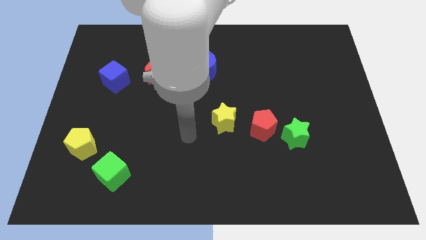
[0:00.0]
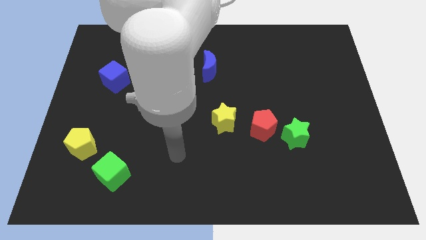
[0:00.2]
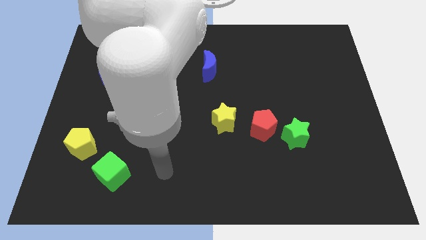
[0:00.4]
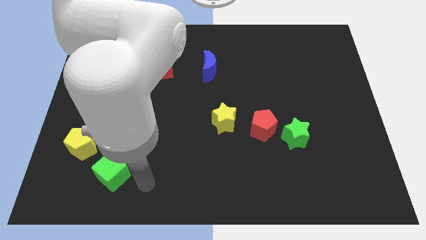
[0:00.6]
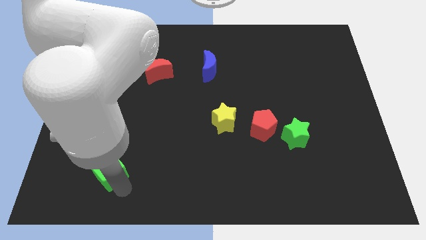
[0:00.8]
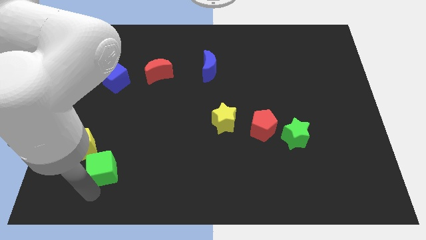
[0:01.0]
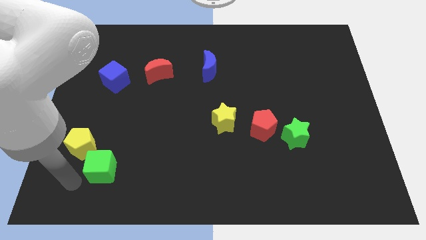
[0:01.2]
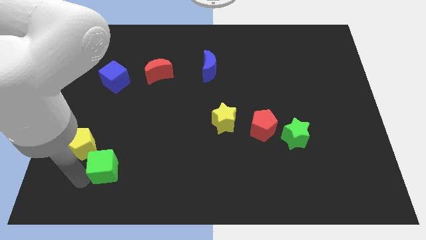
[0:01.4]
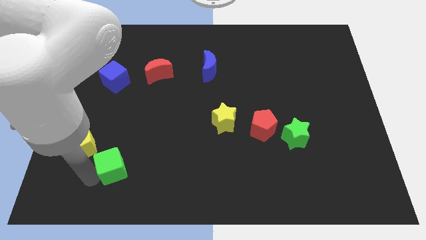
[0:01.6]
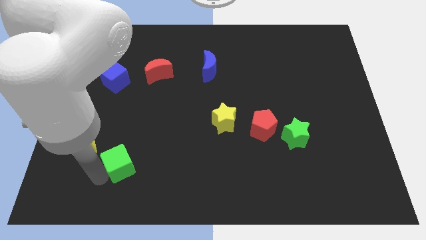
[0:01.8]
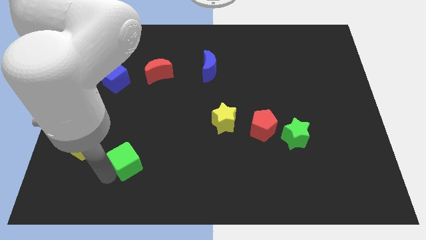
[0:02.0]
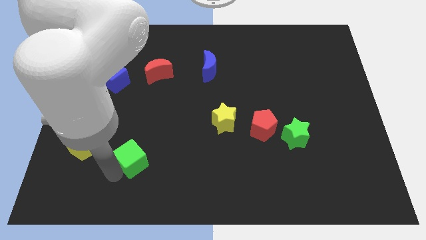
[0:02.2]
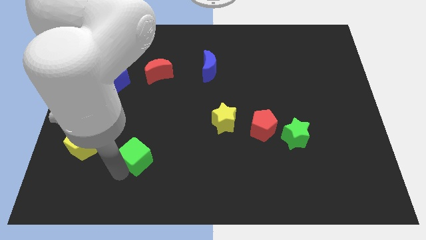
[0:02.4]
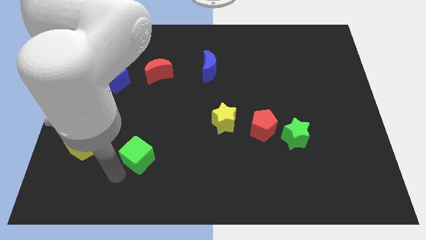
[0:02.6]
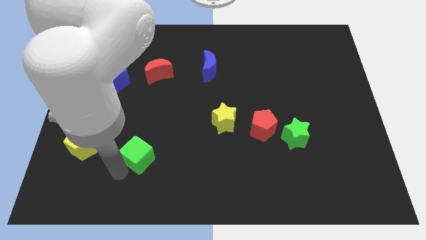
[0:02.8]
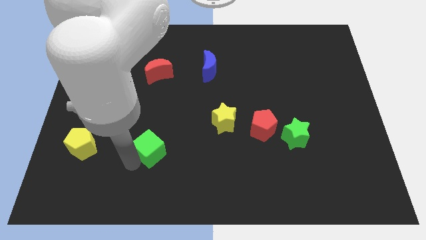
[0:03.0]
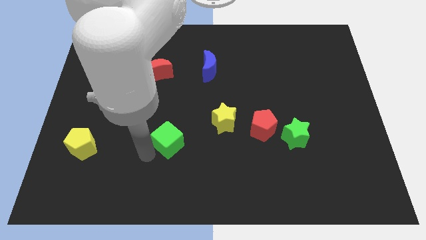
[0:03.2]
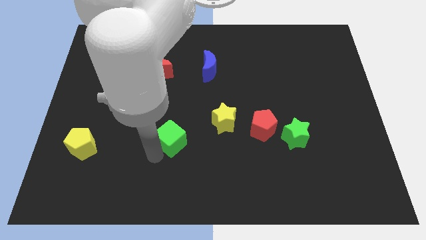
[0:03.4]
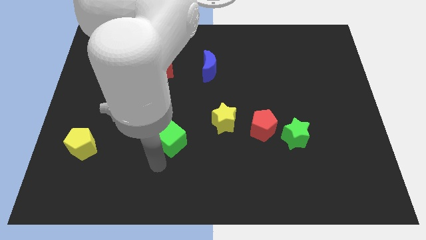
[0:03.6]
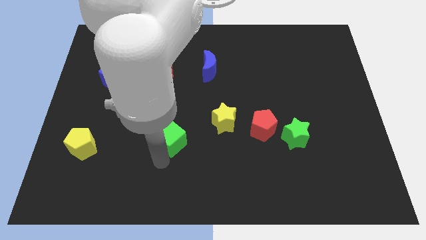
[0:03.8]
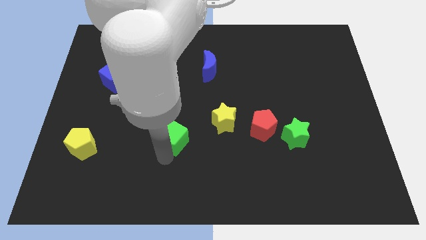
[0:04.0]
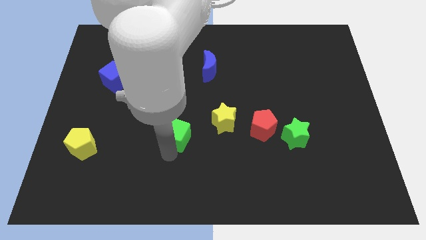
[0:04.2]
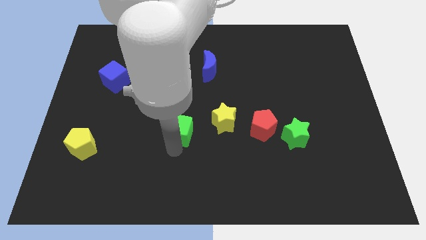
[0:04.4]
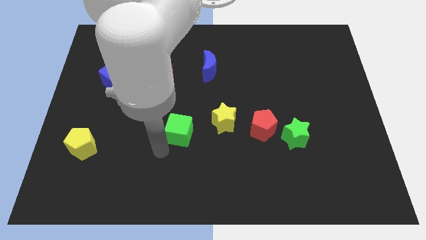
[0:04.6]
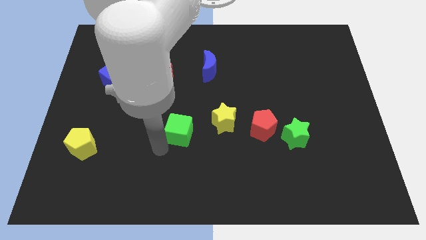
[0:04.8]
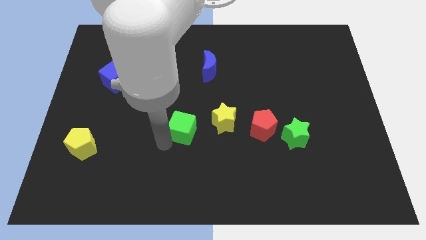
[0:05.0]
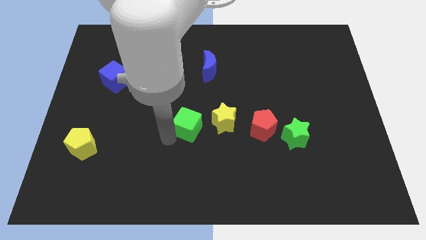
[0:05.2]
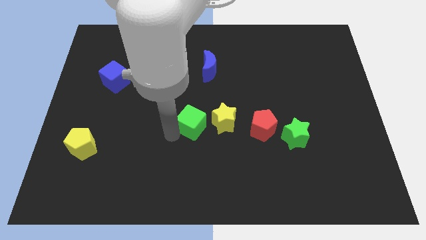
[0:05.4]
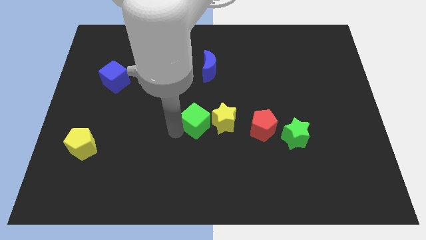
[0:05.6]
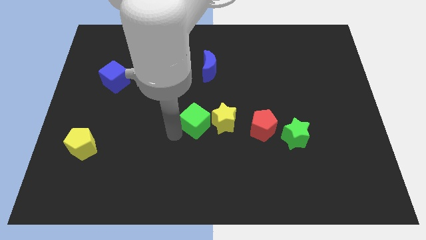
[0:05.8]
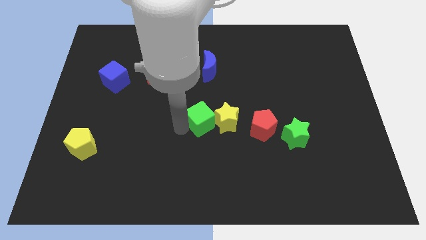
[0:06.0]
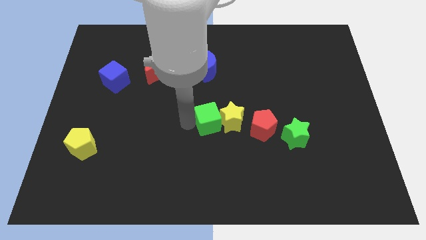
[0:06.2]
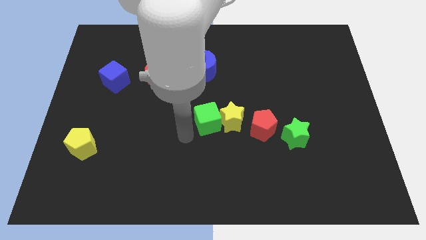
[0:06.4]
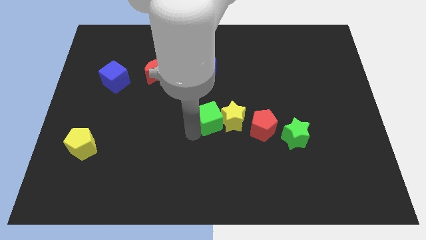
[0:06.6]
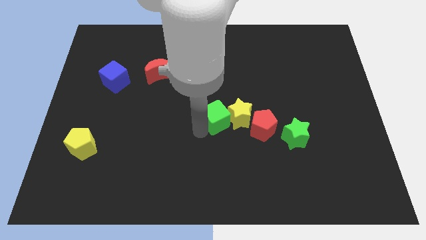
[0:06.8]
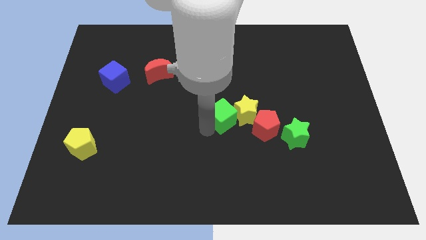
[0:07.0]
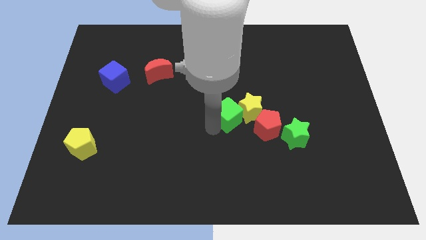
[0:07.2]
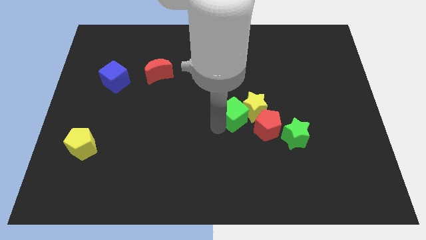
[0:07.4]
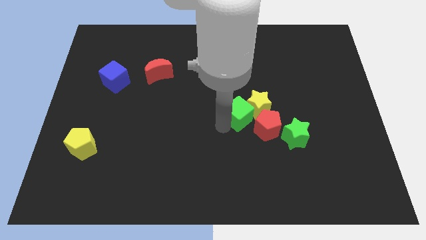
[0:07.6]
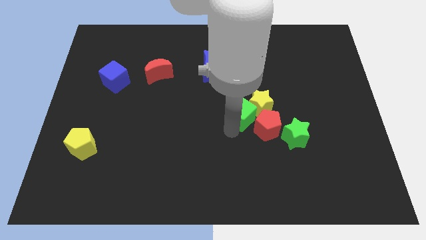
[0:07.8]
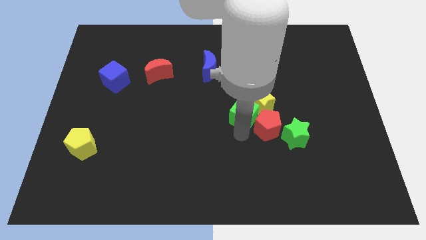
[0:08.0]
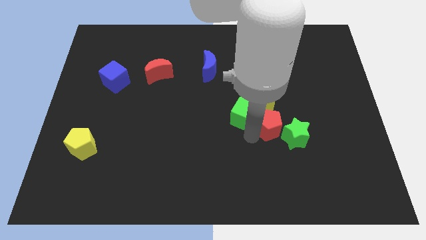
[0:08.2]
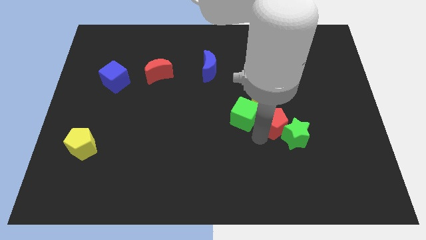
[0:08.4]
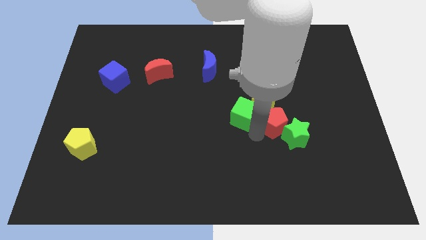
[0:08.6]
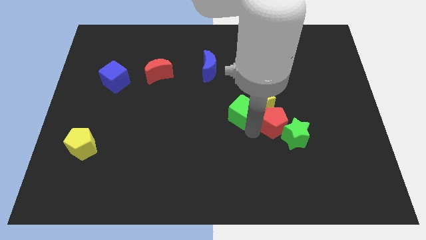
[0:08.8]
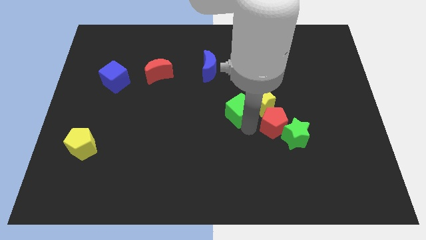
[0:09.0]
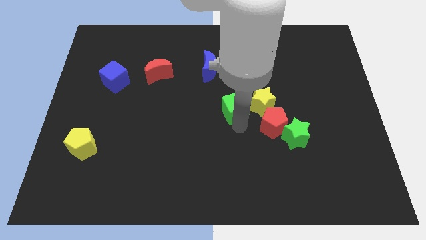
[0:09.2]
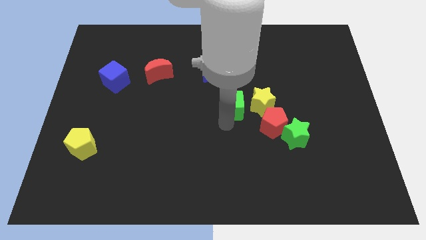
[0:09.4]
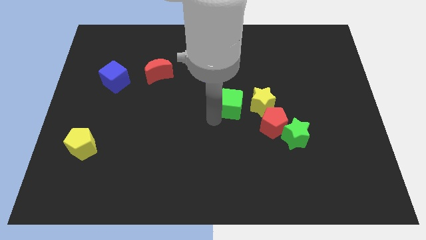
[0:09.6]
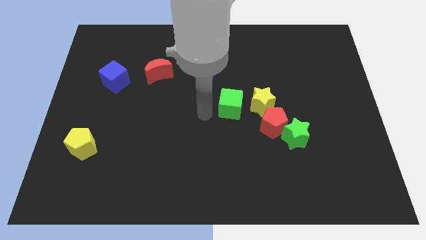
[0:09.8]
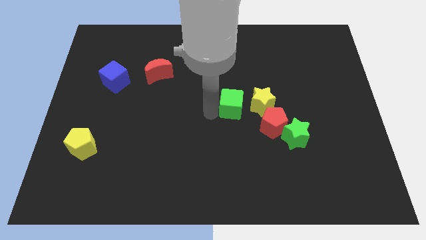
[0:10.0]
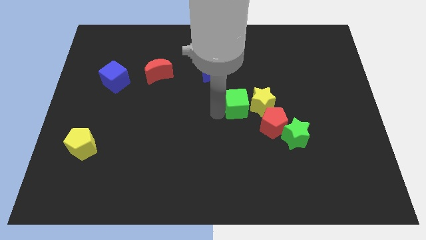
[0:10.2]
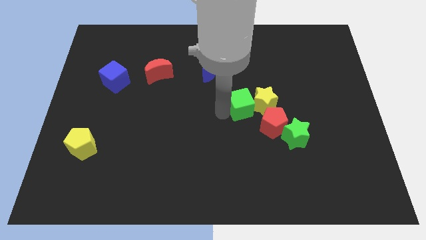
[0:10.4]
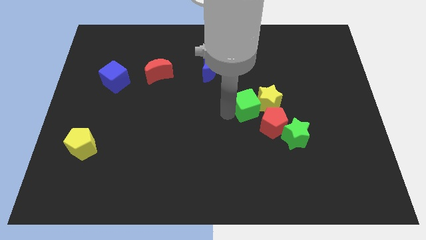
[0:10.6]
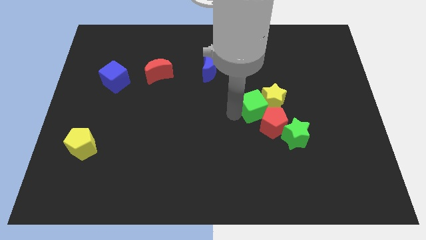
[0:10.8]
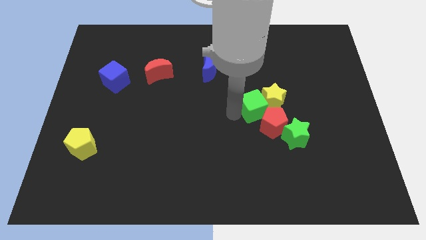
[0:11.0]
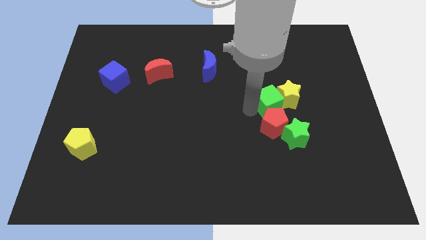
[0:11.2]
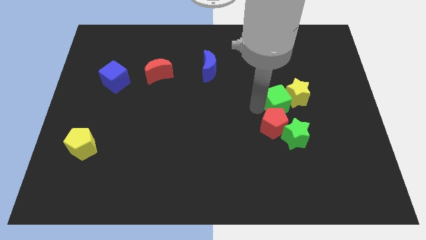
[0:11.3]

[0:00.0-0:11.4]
push the green cube to the top side of the green star
